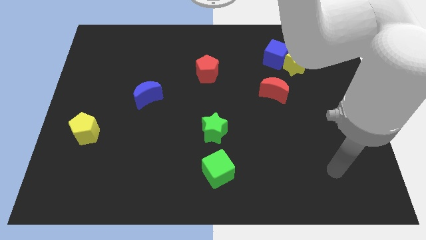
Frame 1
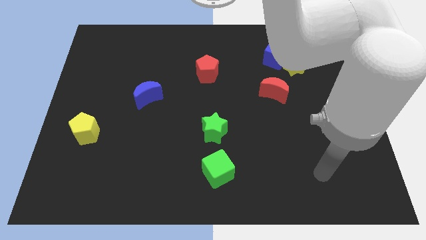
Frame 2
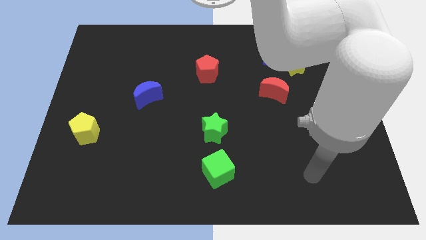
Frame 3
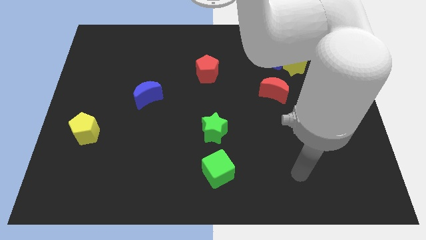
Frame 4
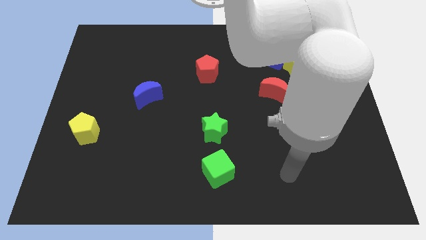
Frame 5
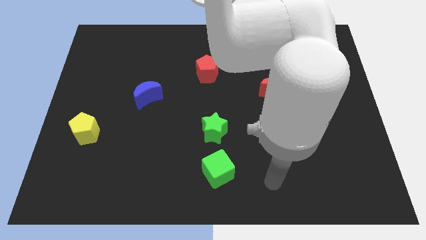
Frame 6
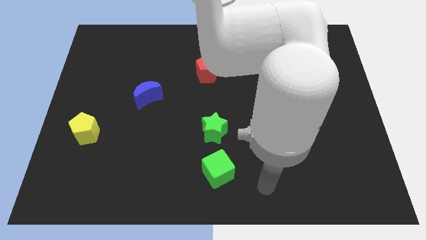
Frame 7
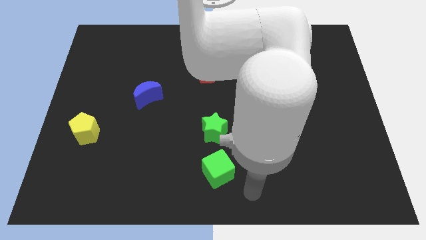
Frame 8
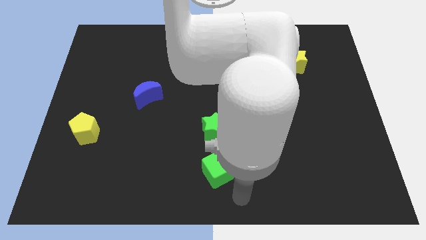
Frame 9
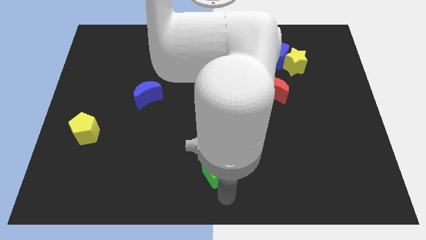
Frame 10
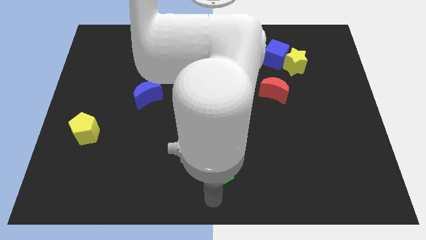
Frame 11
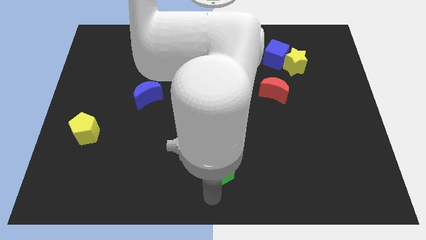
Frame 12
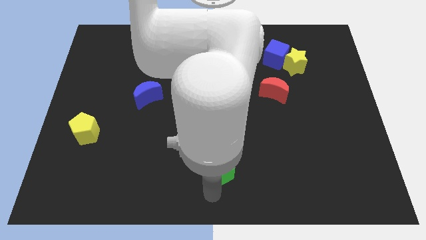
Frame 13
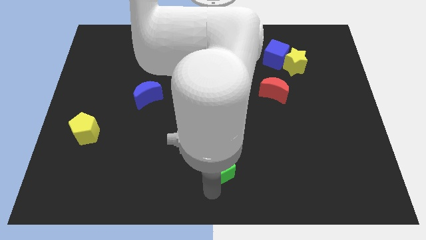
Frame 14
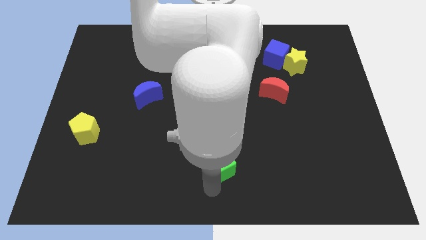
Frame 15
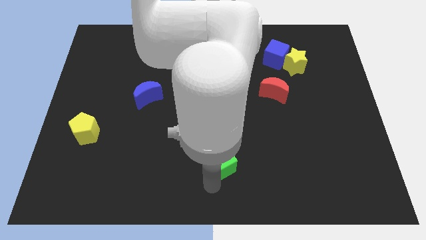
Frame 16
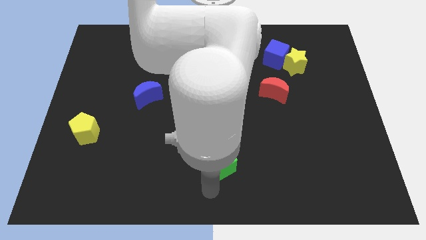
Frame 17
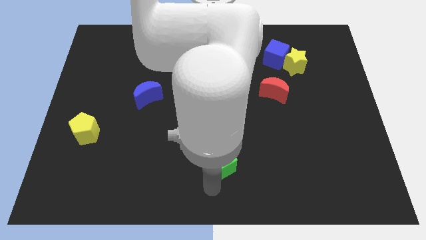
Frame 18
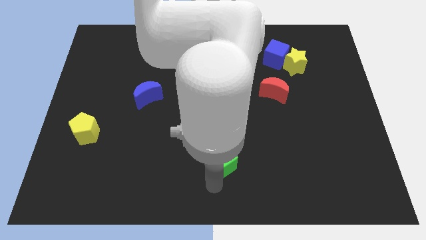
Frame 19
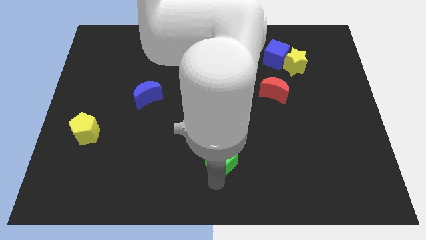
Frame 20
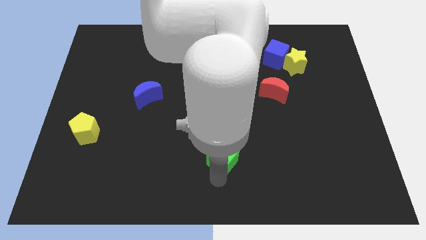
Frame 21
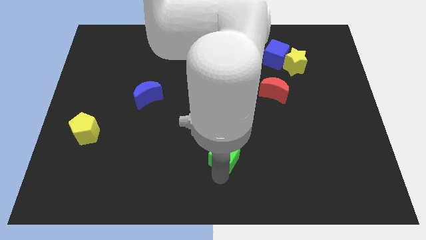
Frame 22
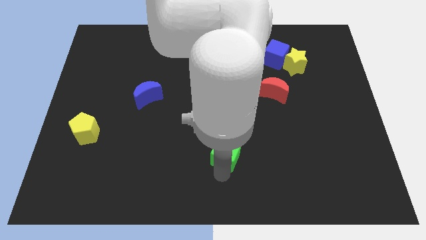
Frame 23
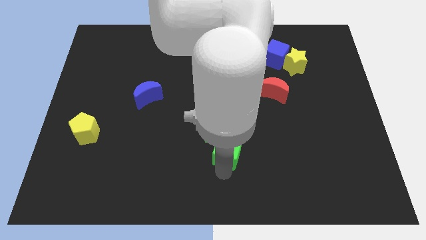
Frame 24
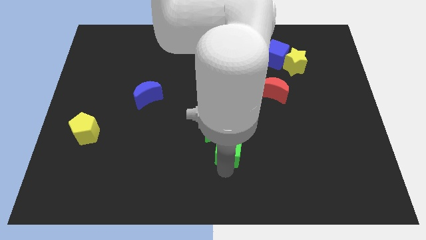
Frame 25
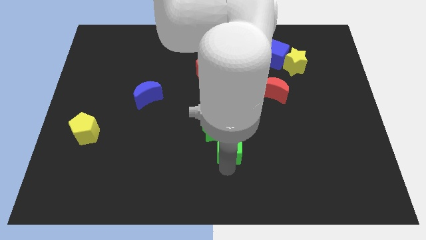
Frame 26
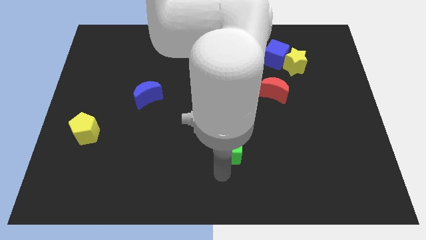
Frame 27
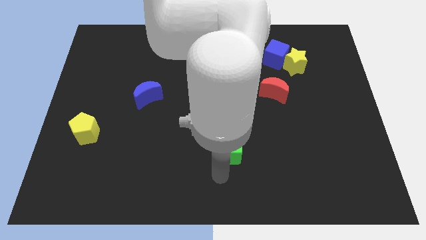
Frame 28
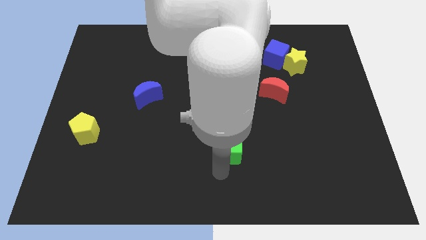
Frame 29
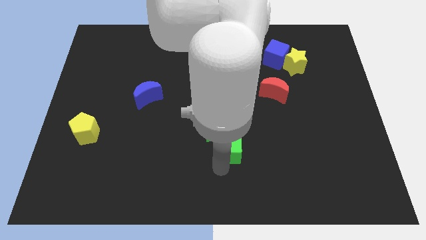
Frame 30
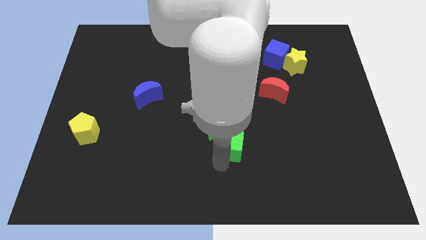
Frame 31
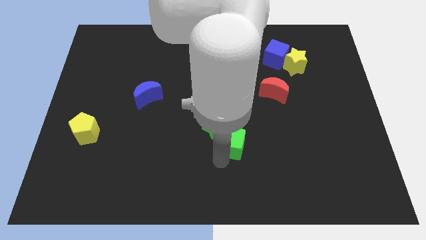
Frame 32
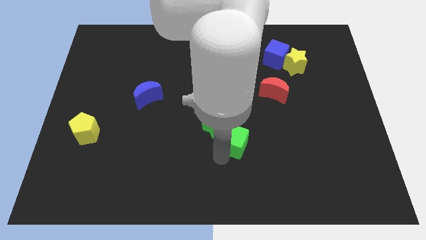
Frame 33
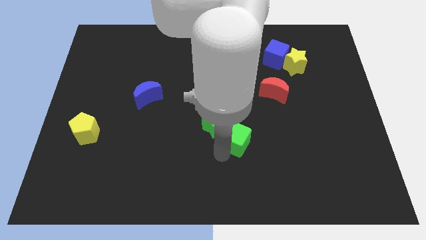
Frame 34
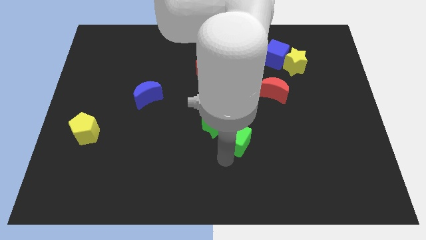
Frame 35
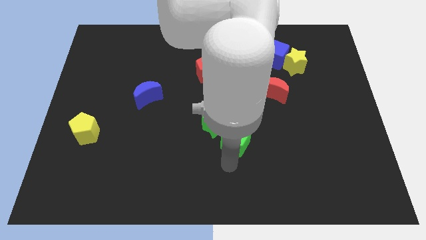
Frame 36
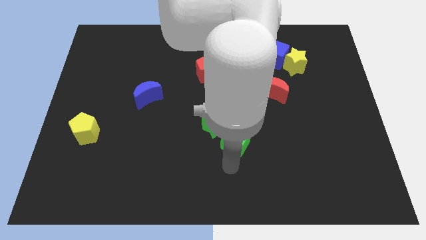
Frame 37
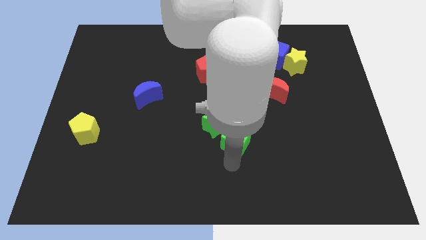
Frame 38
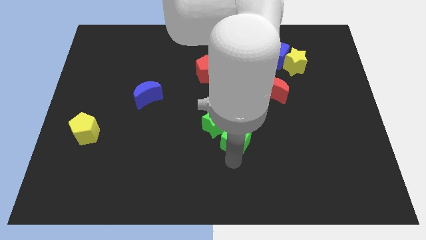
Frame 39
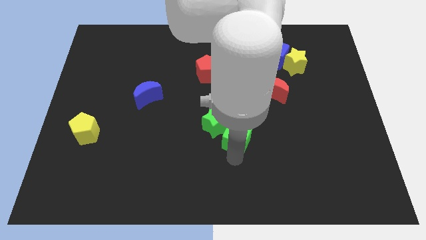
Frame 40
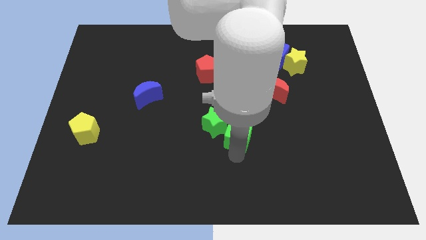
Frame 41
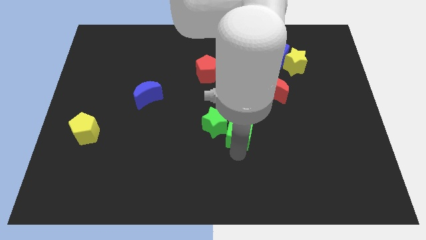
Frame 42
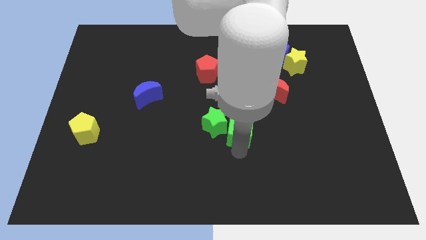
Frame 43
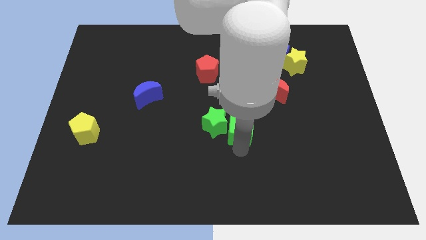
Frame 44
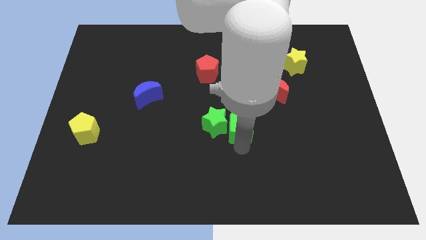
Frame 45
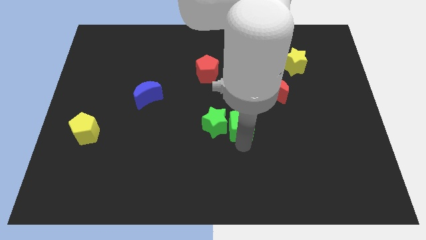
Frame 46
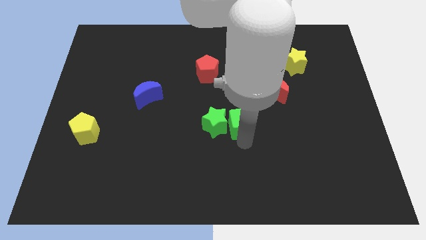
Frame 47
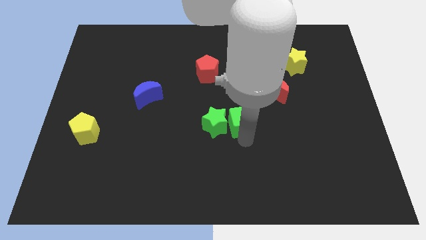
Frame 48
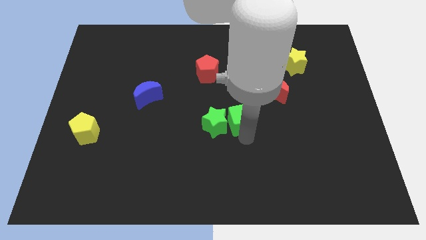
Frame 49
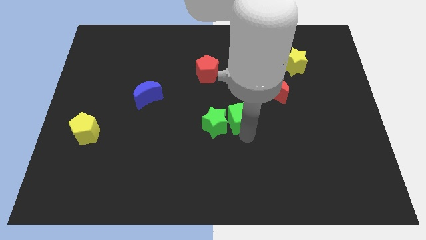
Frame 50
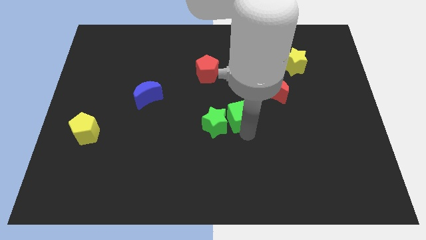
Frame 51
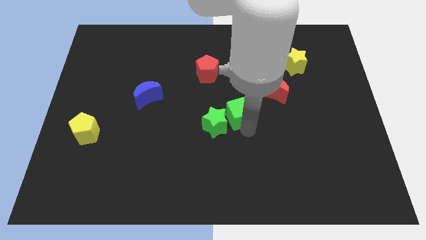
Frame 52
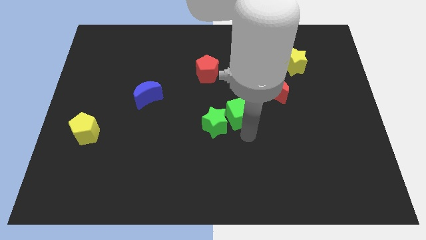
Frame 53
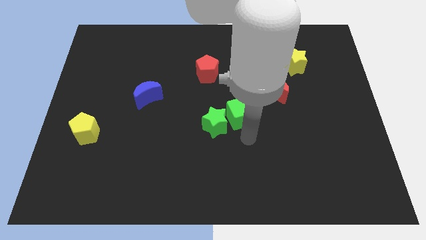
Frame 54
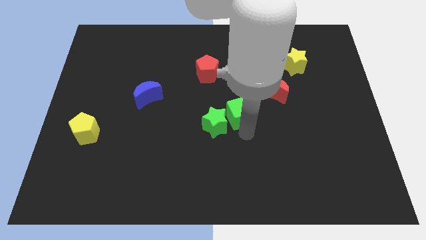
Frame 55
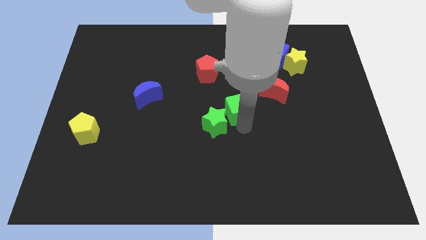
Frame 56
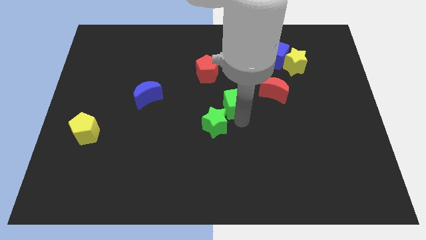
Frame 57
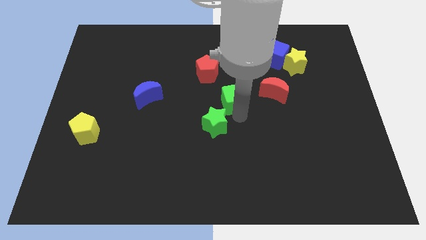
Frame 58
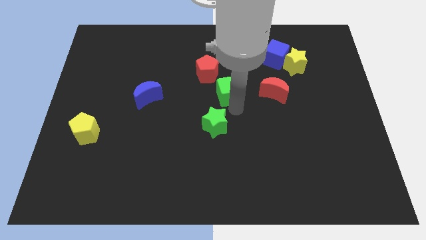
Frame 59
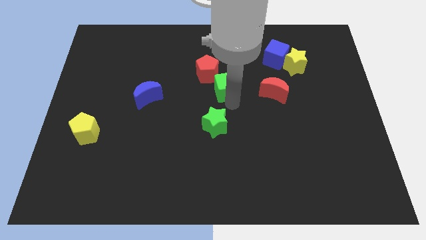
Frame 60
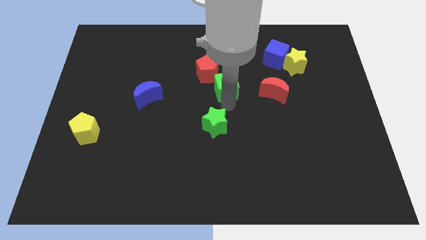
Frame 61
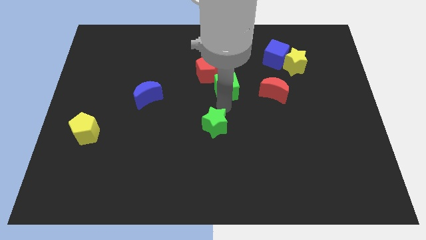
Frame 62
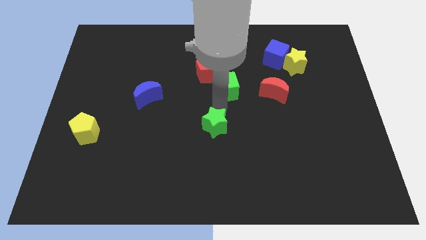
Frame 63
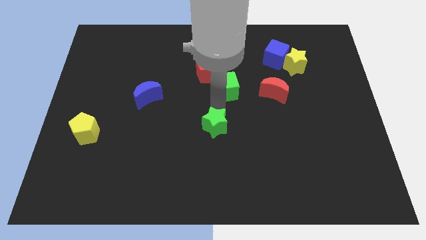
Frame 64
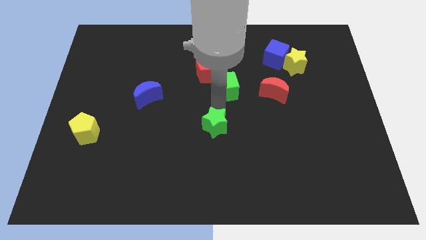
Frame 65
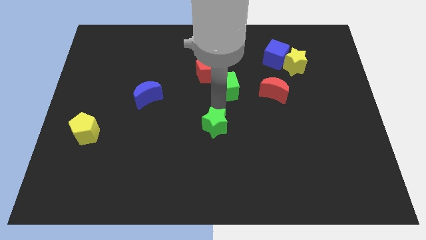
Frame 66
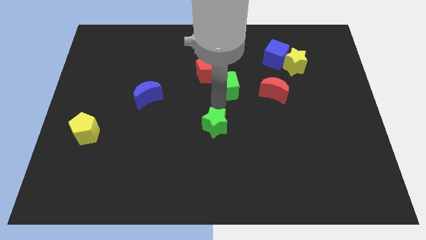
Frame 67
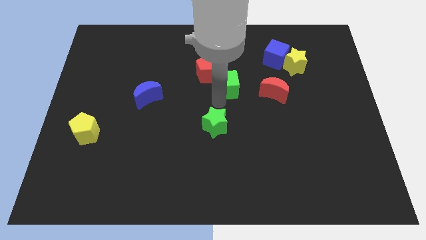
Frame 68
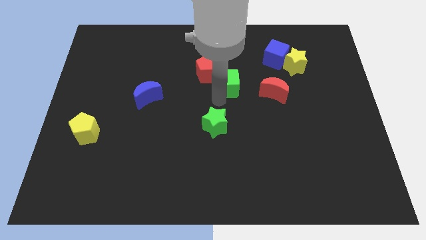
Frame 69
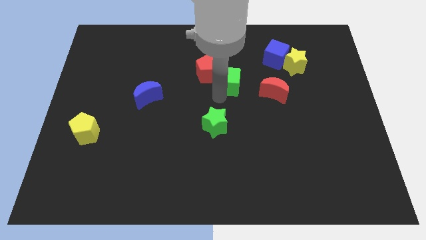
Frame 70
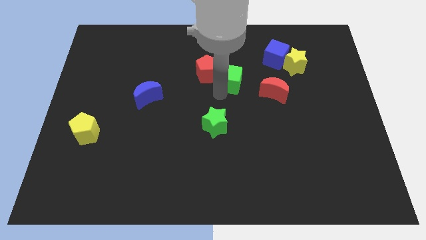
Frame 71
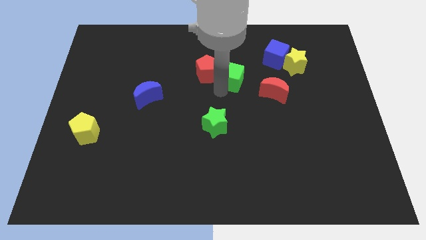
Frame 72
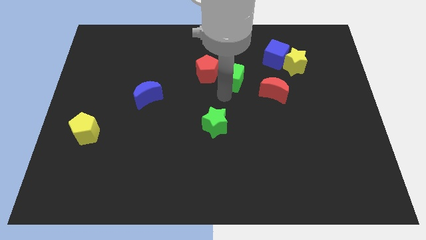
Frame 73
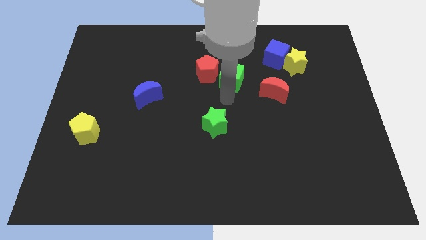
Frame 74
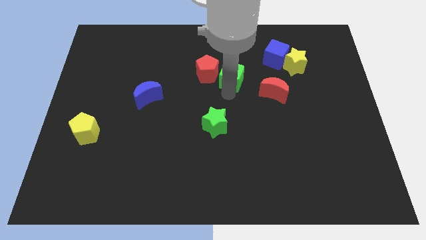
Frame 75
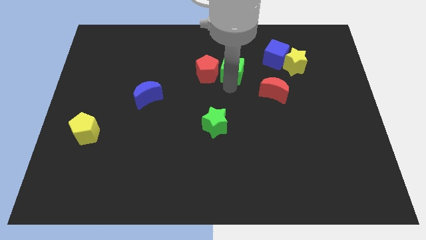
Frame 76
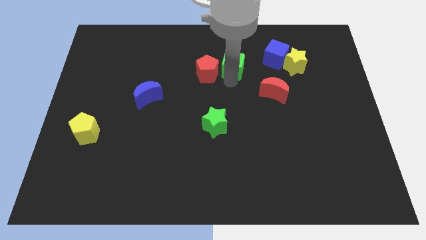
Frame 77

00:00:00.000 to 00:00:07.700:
push the green cube to the left side of the blue cube
